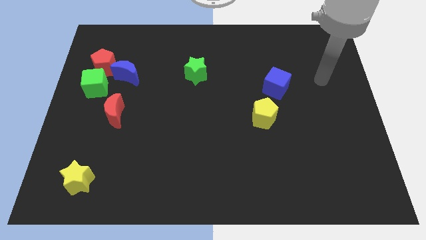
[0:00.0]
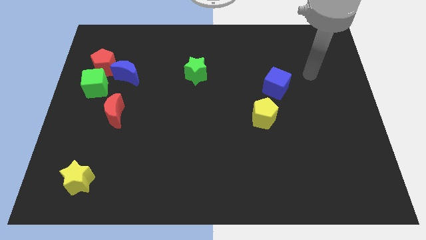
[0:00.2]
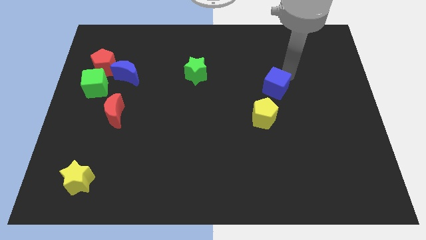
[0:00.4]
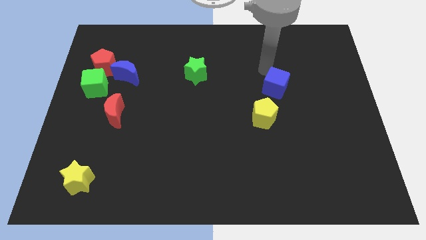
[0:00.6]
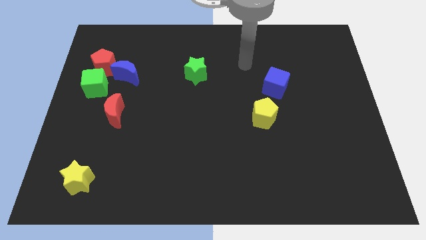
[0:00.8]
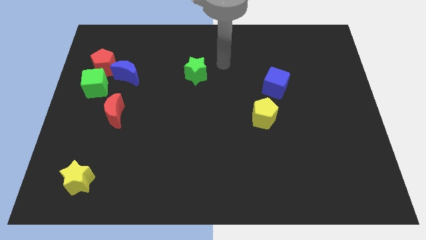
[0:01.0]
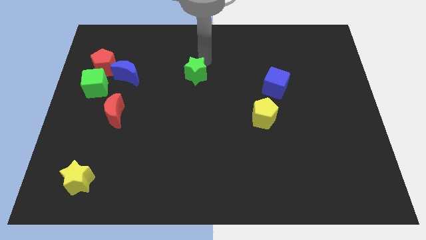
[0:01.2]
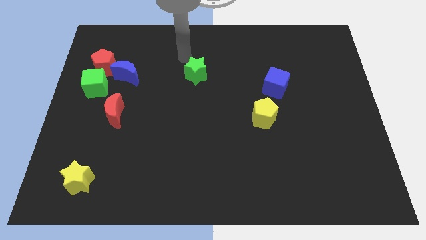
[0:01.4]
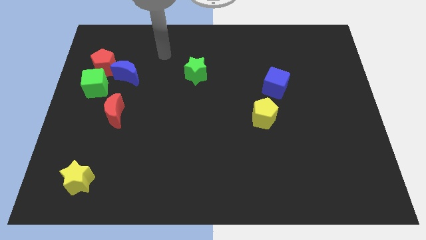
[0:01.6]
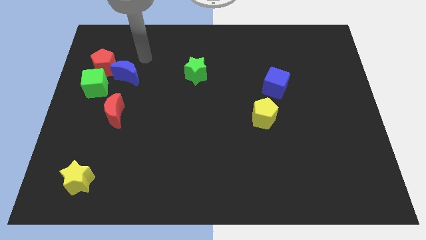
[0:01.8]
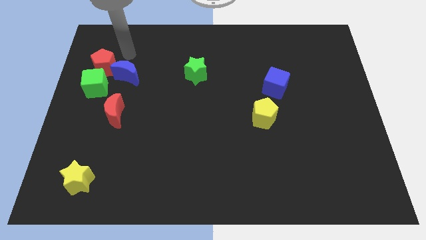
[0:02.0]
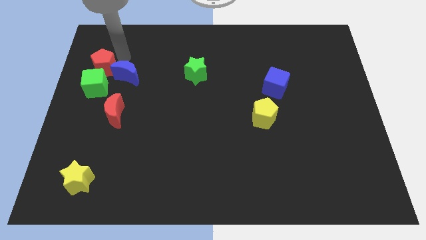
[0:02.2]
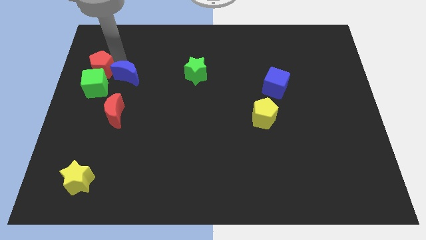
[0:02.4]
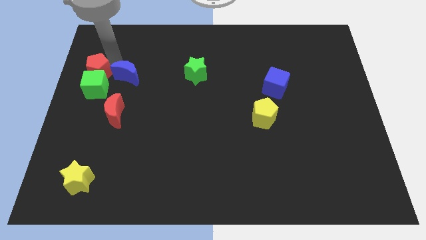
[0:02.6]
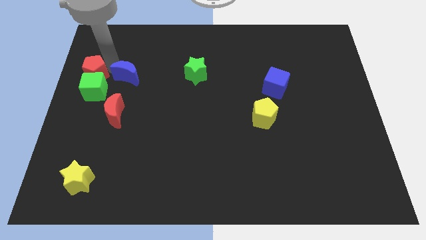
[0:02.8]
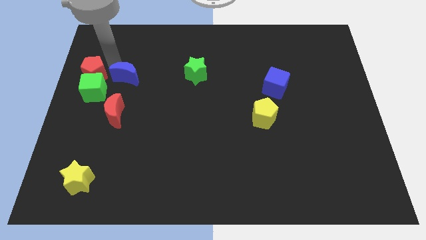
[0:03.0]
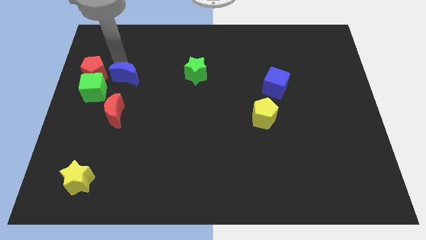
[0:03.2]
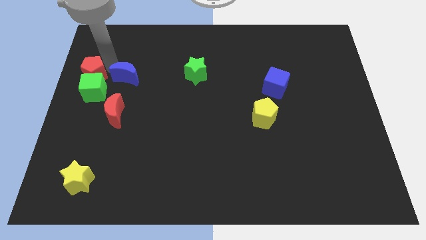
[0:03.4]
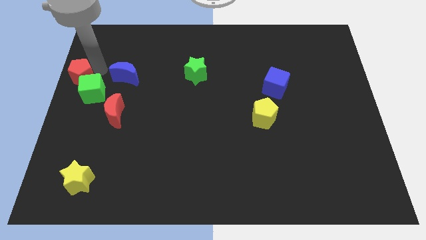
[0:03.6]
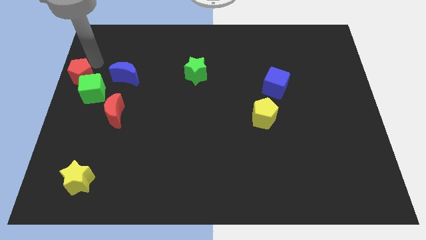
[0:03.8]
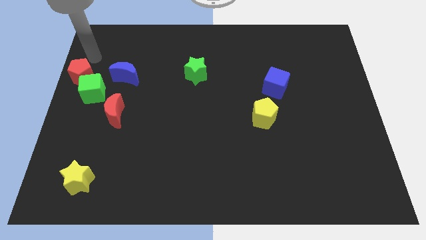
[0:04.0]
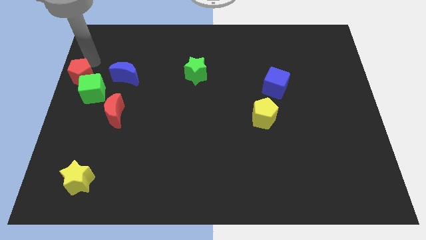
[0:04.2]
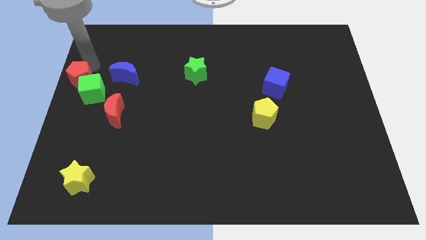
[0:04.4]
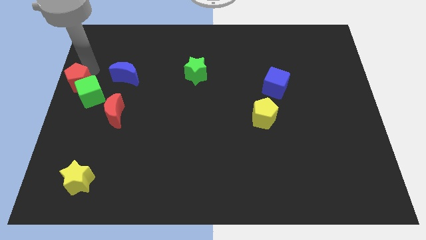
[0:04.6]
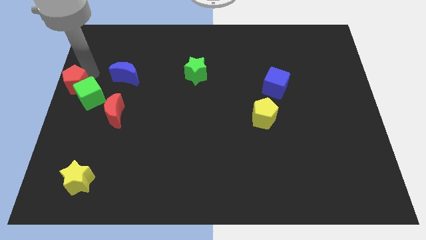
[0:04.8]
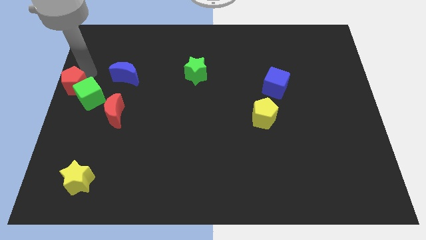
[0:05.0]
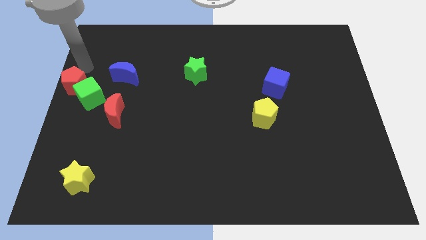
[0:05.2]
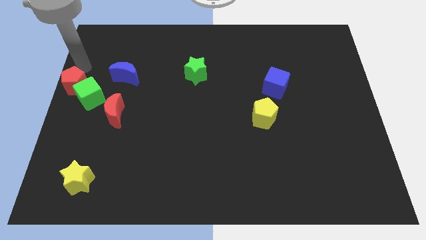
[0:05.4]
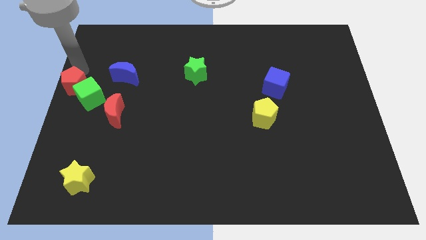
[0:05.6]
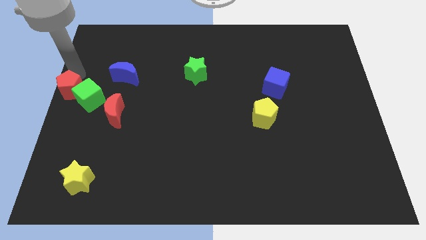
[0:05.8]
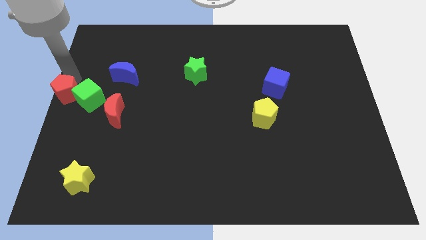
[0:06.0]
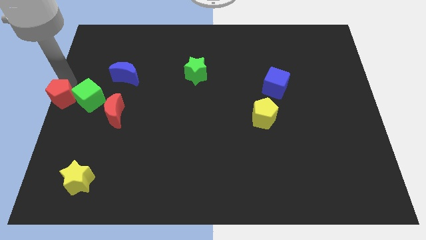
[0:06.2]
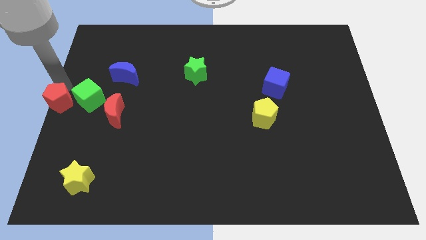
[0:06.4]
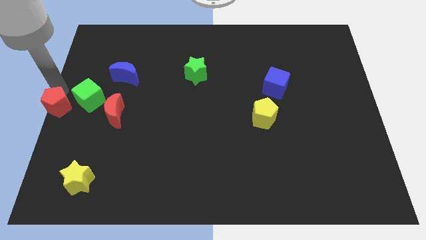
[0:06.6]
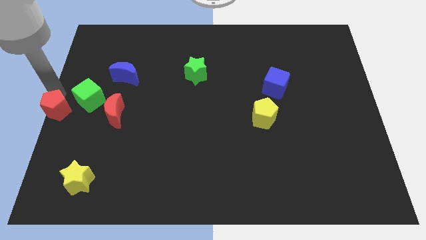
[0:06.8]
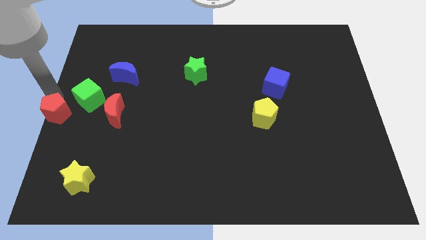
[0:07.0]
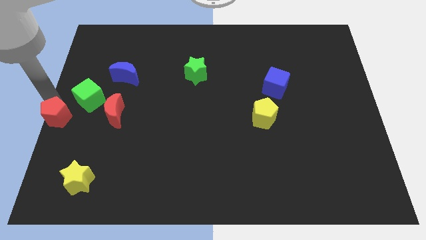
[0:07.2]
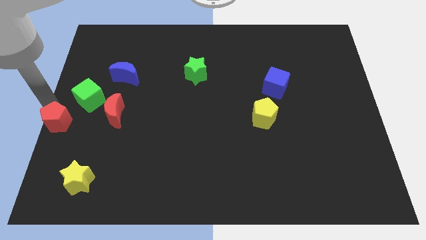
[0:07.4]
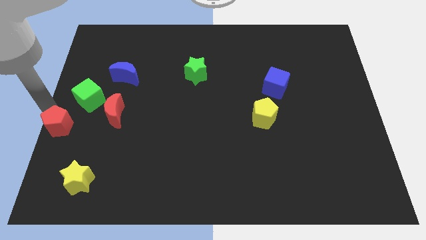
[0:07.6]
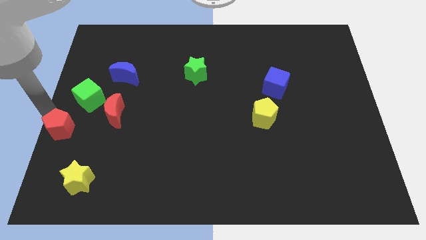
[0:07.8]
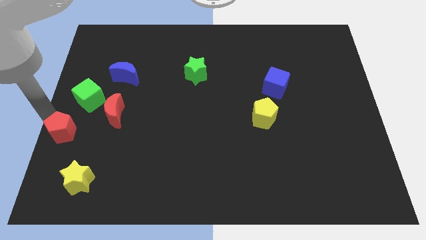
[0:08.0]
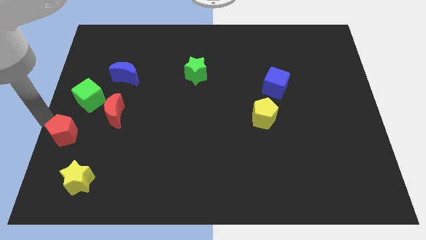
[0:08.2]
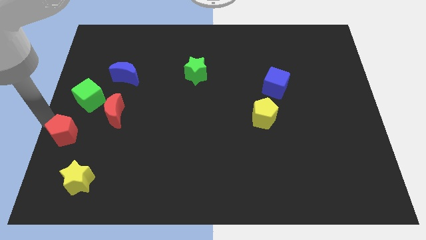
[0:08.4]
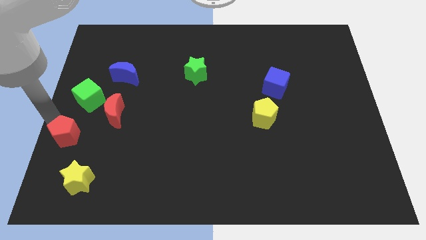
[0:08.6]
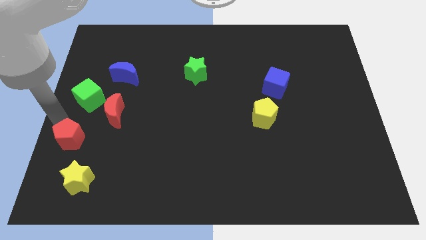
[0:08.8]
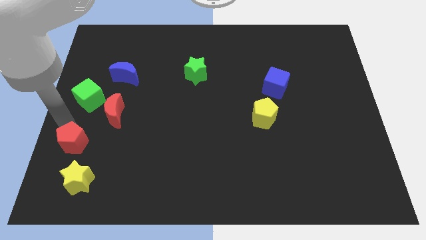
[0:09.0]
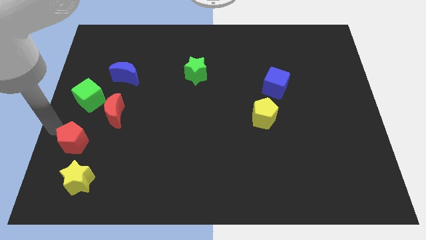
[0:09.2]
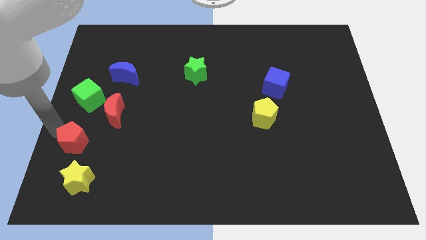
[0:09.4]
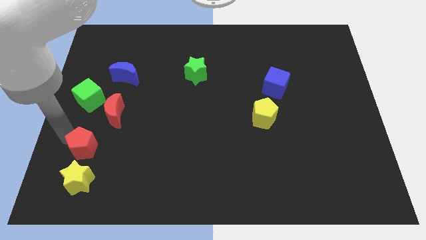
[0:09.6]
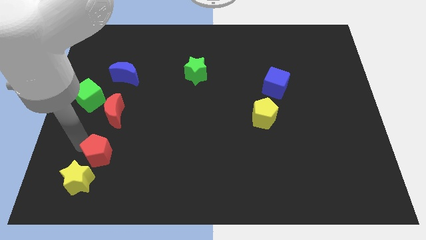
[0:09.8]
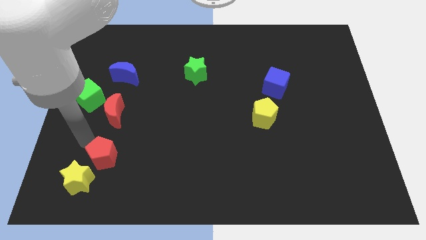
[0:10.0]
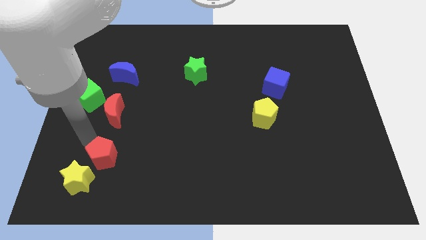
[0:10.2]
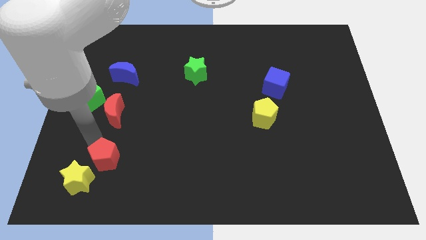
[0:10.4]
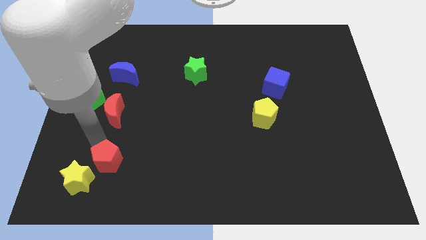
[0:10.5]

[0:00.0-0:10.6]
put the red pentagon just right of the yellow star

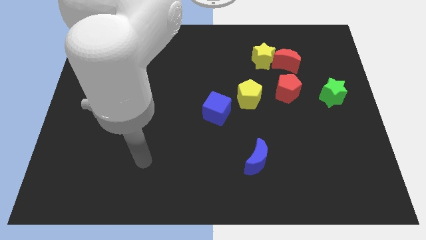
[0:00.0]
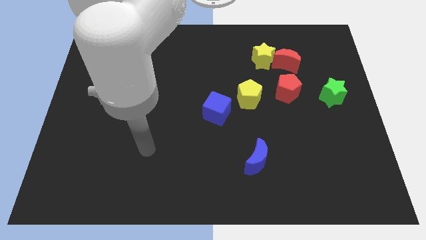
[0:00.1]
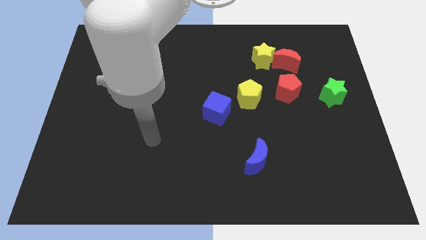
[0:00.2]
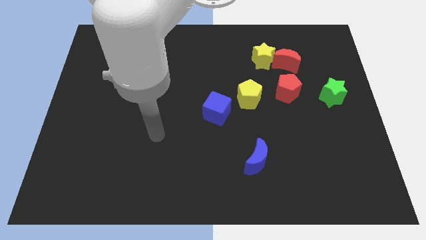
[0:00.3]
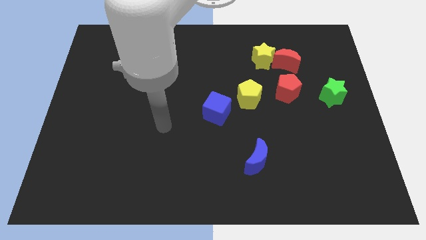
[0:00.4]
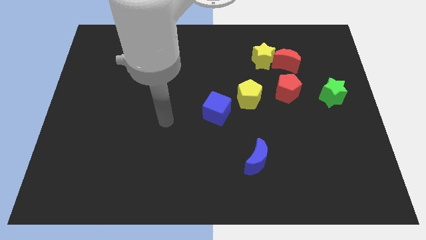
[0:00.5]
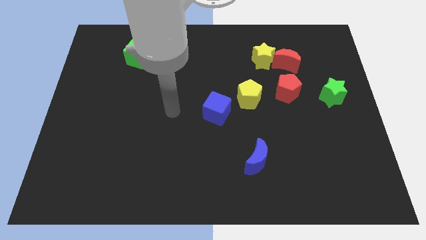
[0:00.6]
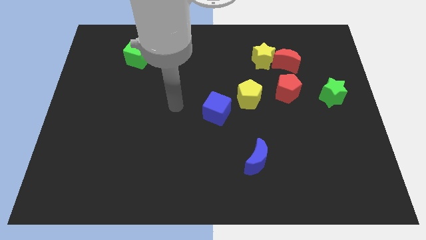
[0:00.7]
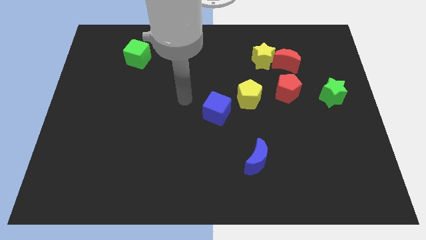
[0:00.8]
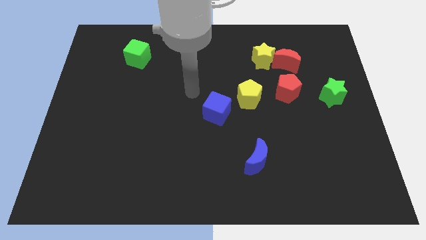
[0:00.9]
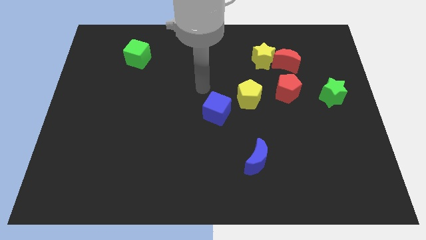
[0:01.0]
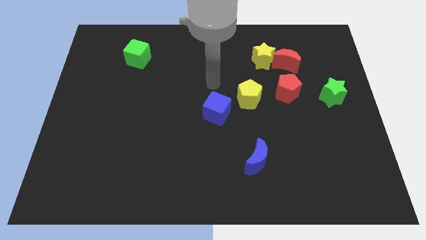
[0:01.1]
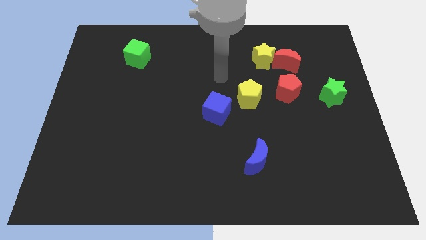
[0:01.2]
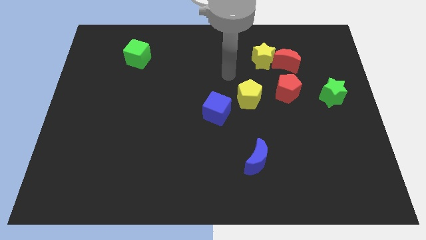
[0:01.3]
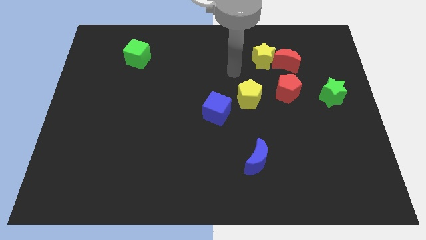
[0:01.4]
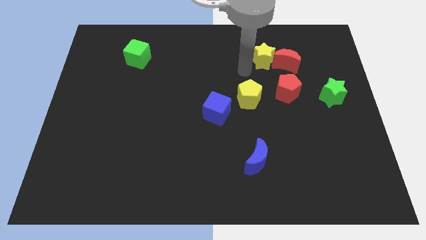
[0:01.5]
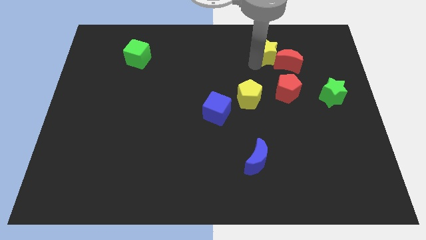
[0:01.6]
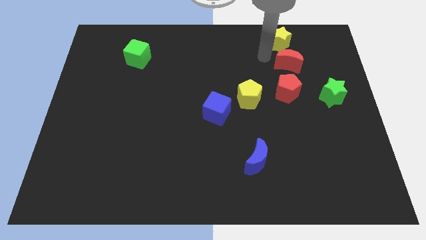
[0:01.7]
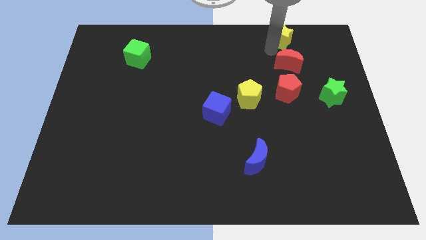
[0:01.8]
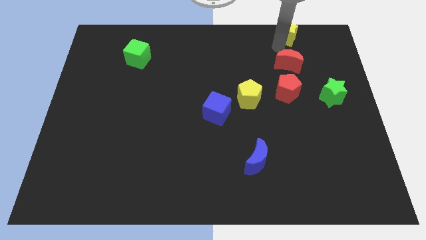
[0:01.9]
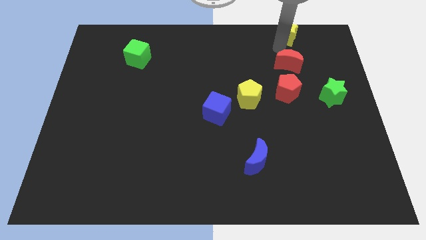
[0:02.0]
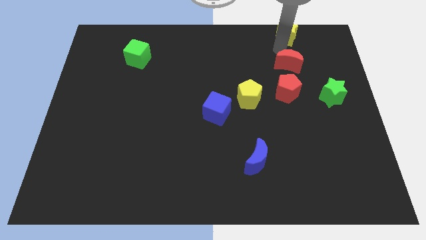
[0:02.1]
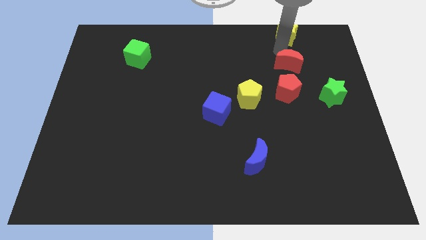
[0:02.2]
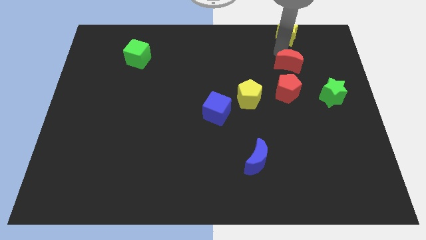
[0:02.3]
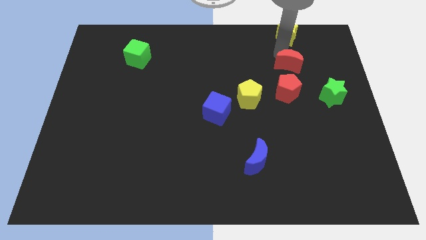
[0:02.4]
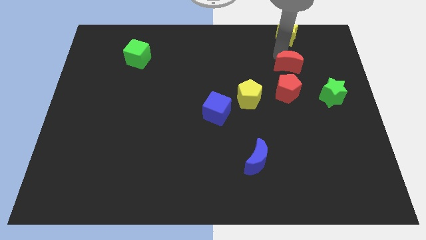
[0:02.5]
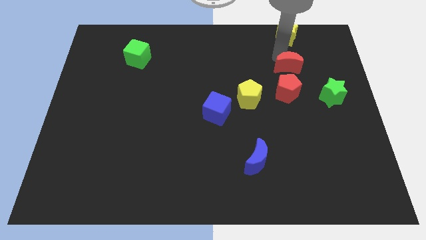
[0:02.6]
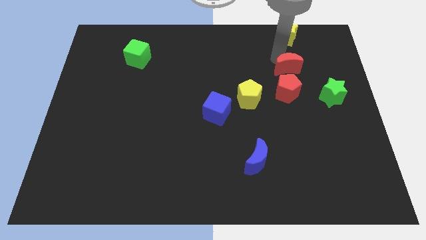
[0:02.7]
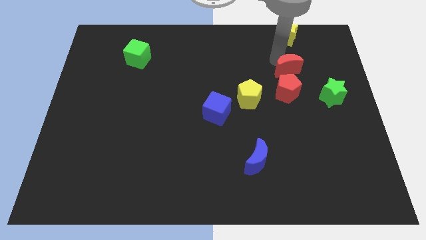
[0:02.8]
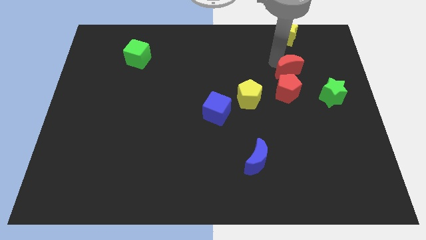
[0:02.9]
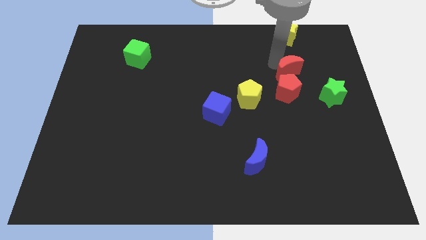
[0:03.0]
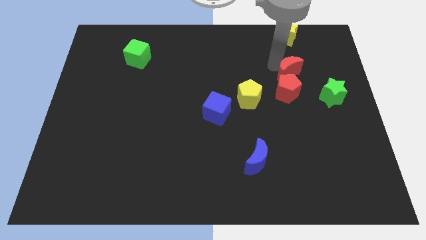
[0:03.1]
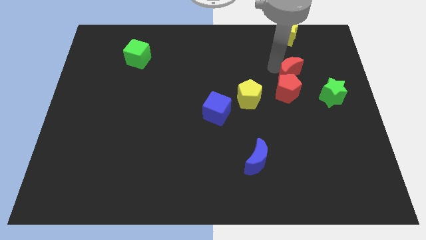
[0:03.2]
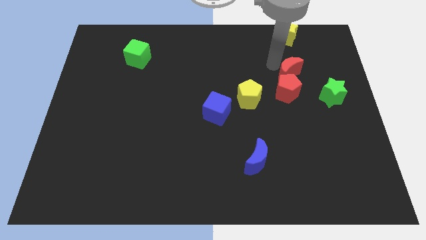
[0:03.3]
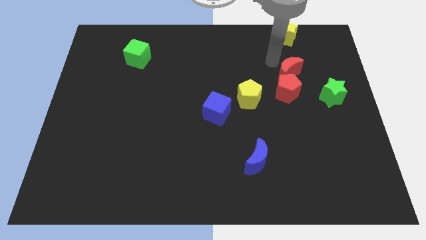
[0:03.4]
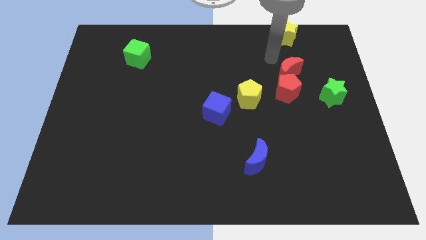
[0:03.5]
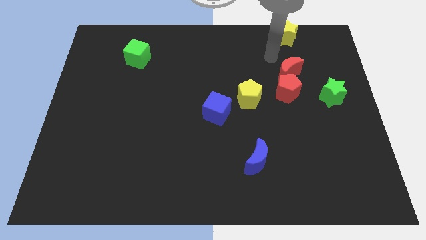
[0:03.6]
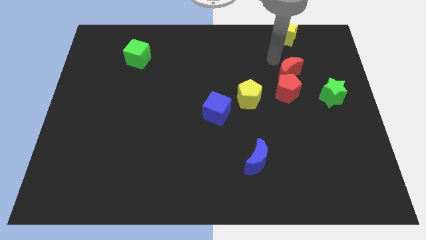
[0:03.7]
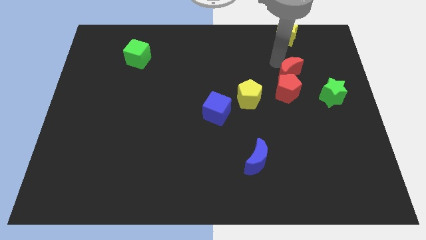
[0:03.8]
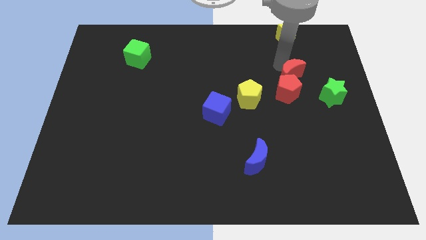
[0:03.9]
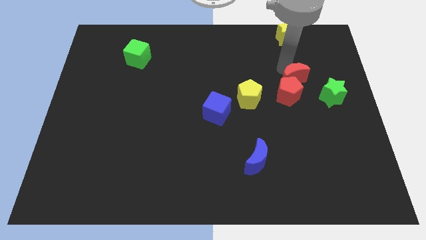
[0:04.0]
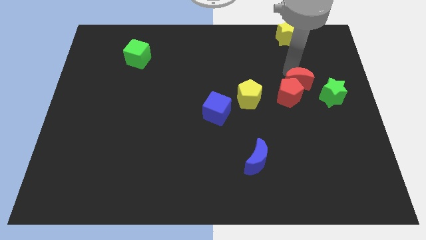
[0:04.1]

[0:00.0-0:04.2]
move the red moon right of the yellow pentagon
